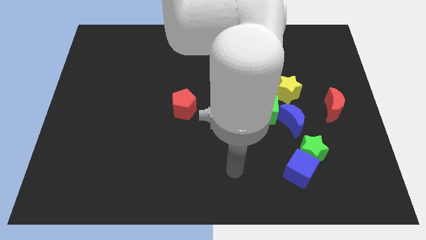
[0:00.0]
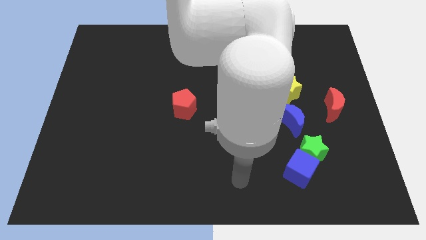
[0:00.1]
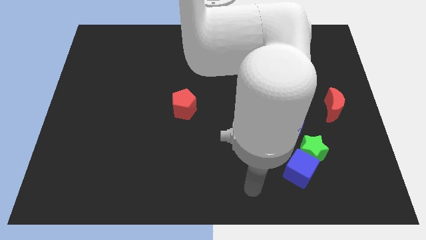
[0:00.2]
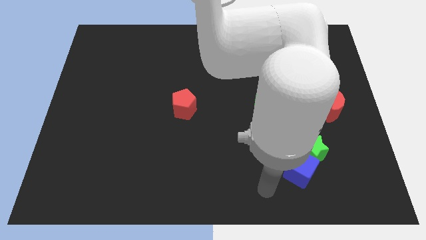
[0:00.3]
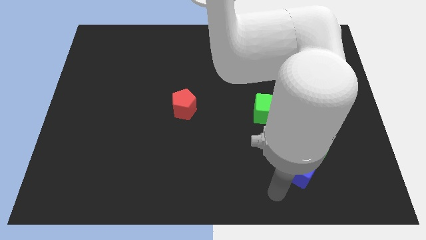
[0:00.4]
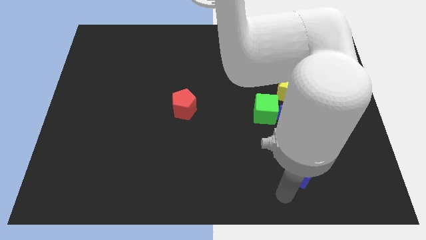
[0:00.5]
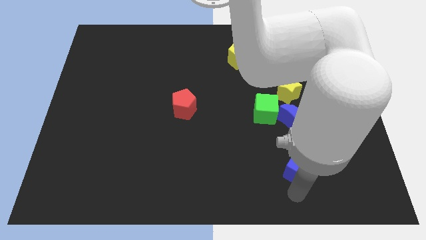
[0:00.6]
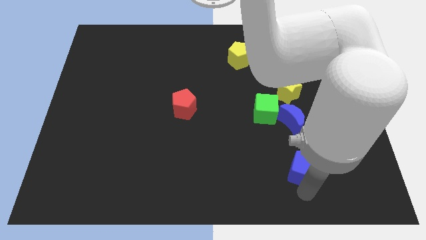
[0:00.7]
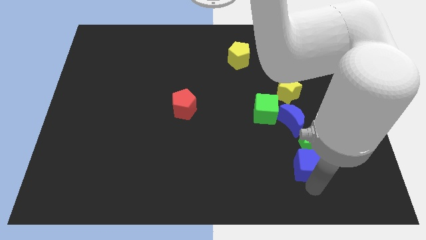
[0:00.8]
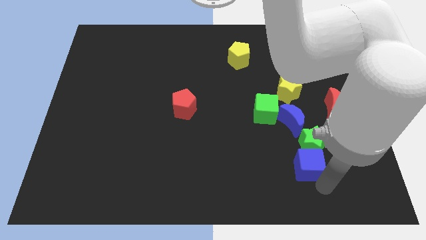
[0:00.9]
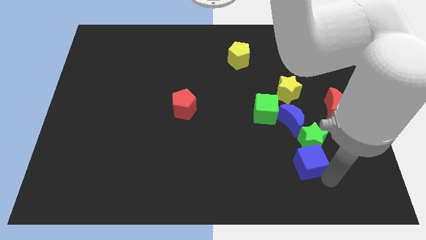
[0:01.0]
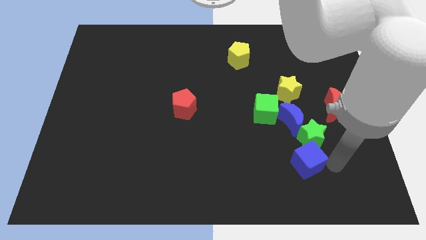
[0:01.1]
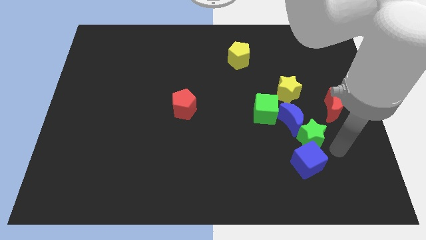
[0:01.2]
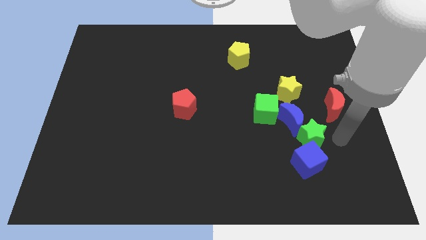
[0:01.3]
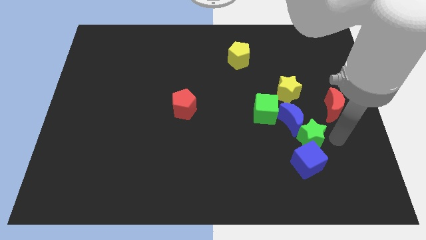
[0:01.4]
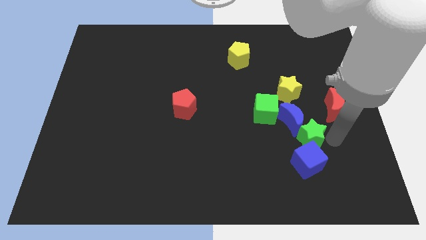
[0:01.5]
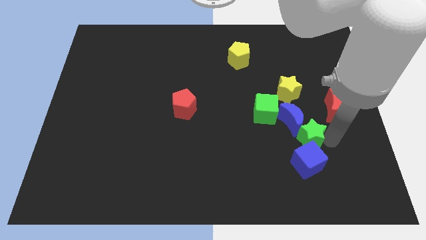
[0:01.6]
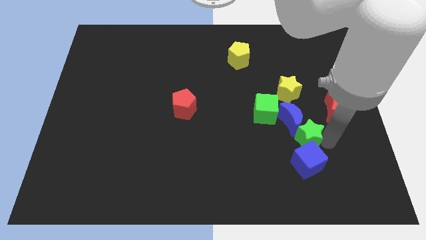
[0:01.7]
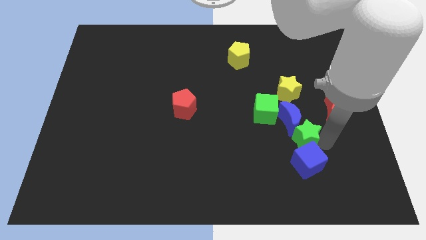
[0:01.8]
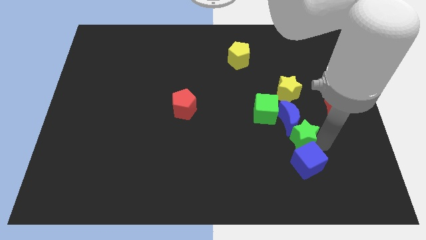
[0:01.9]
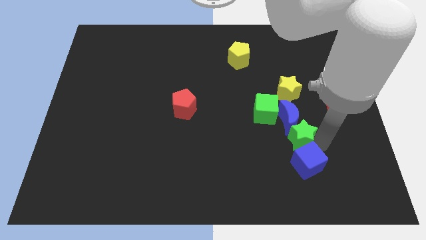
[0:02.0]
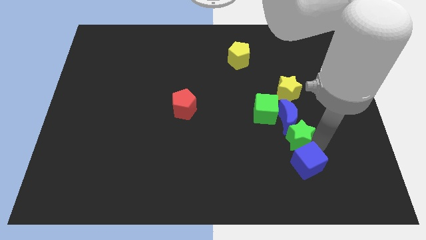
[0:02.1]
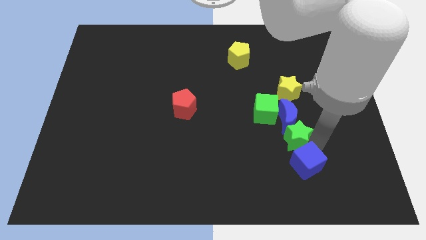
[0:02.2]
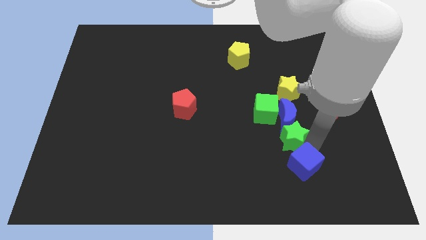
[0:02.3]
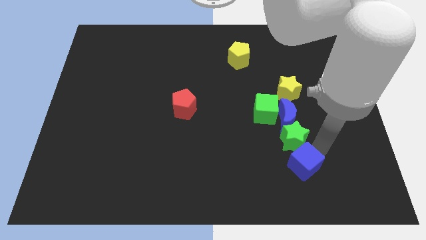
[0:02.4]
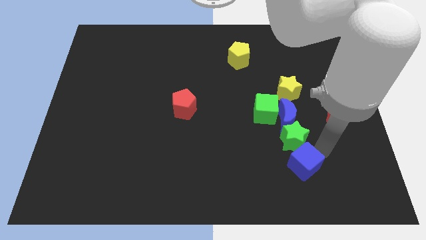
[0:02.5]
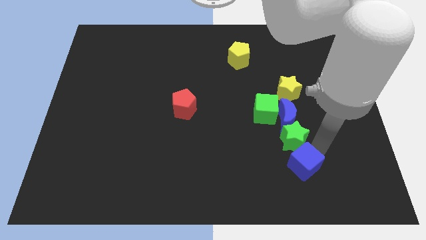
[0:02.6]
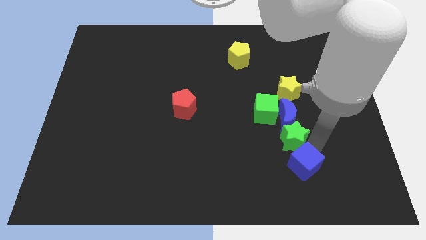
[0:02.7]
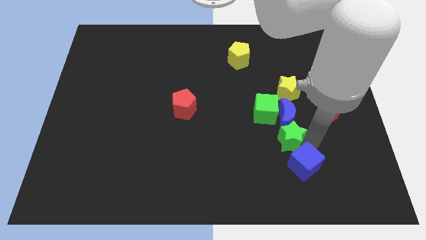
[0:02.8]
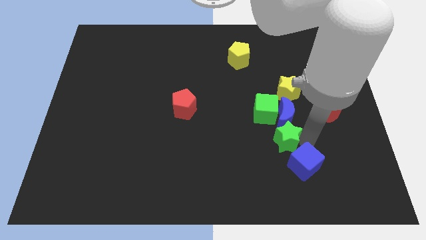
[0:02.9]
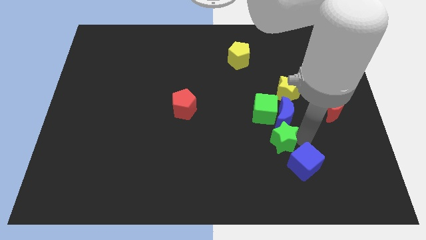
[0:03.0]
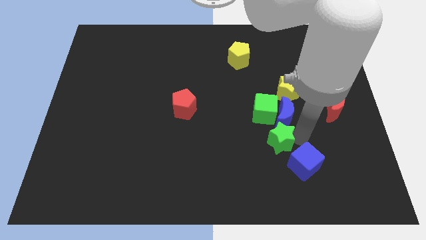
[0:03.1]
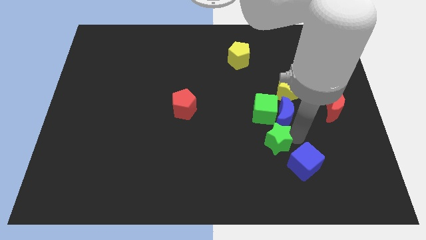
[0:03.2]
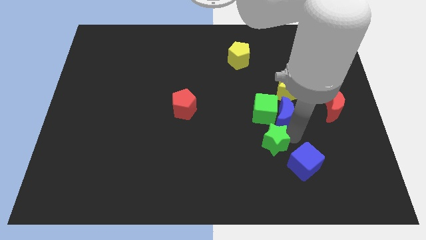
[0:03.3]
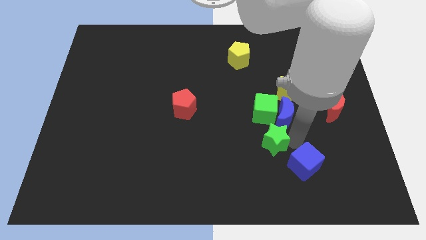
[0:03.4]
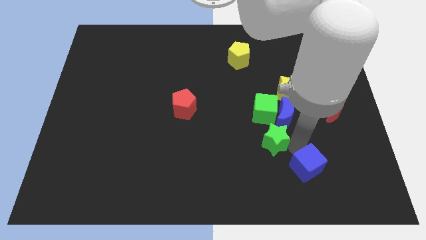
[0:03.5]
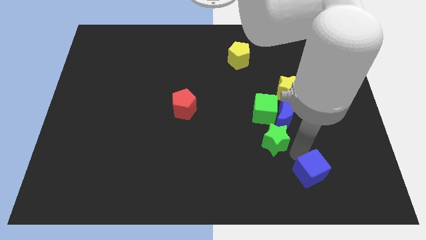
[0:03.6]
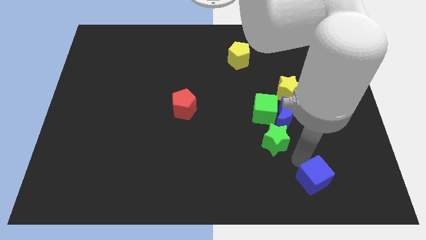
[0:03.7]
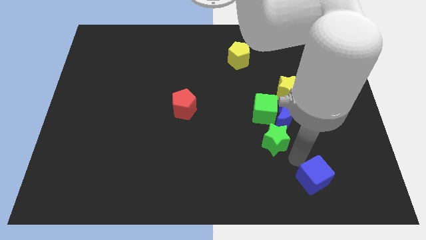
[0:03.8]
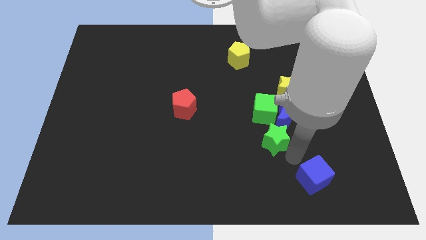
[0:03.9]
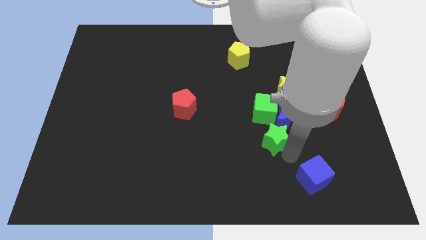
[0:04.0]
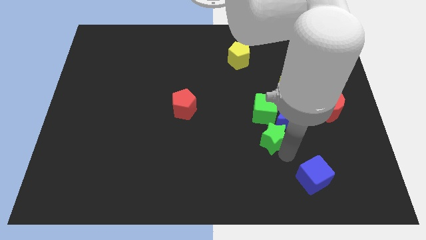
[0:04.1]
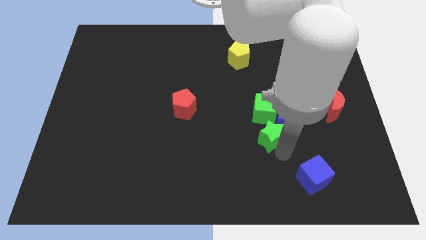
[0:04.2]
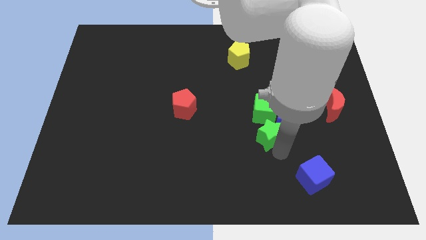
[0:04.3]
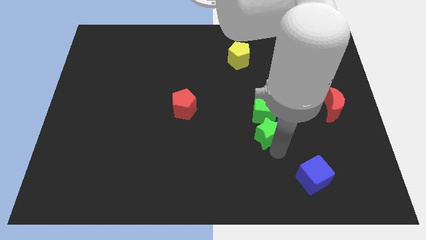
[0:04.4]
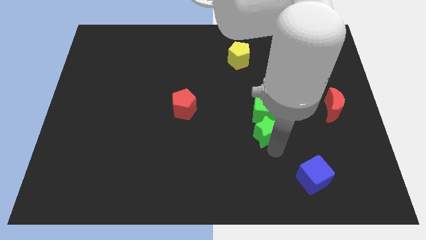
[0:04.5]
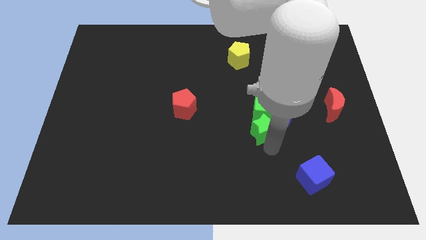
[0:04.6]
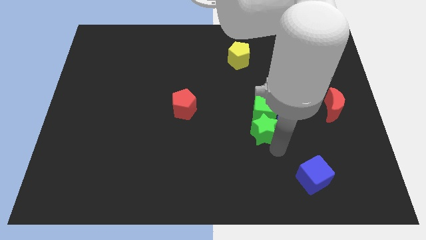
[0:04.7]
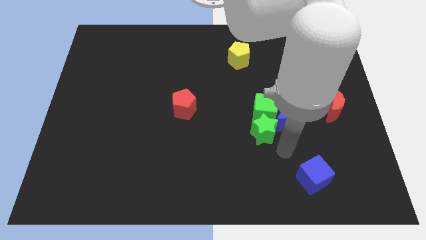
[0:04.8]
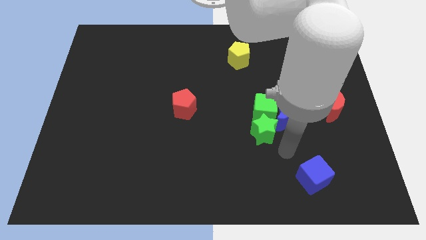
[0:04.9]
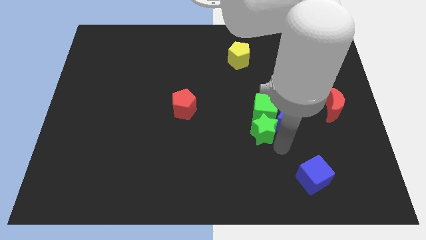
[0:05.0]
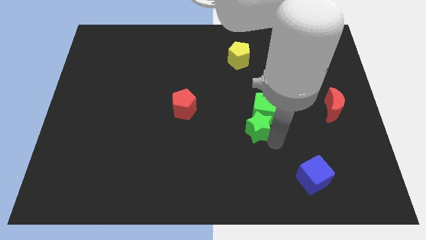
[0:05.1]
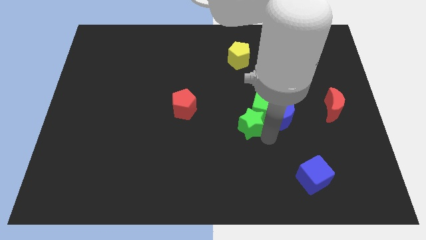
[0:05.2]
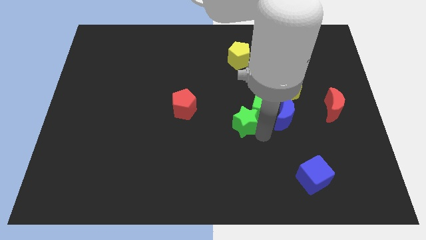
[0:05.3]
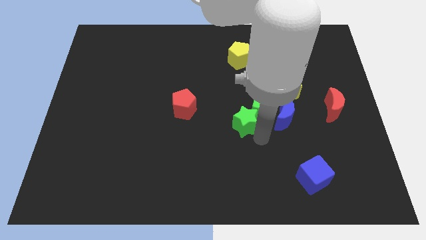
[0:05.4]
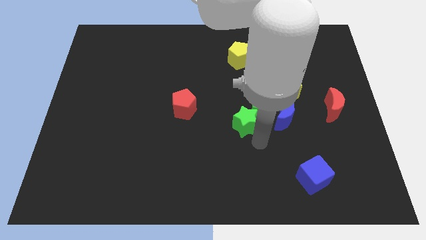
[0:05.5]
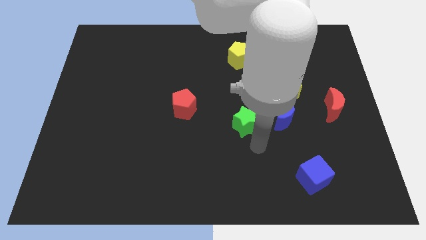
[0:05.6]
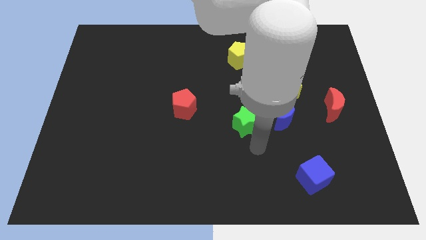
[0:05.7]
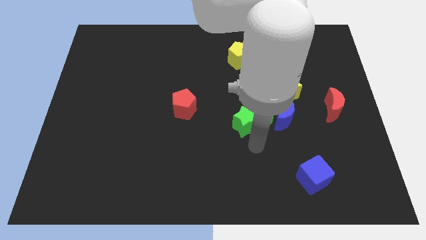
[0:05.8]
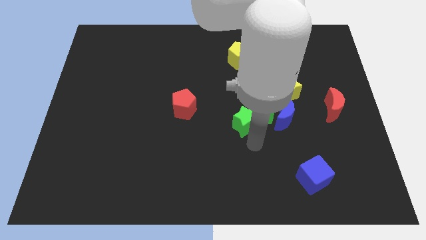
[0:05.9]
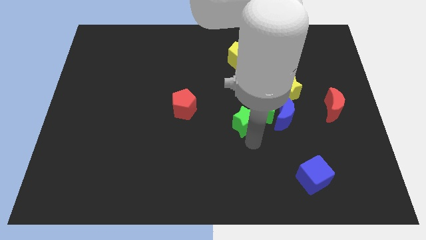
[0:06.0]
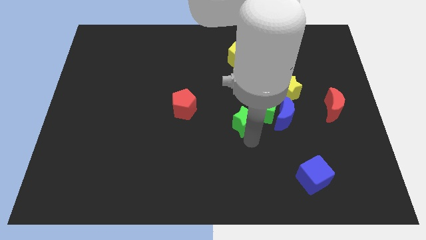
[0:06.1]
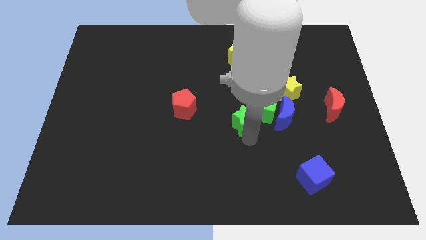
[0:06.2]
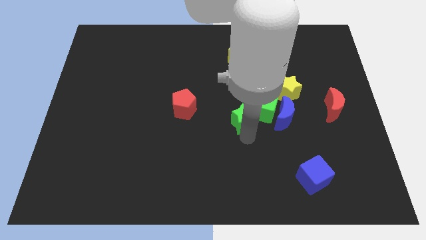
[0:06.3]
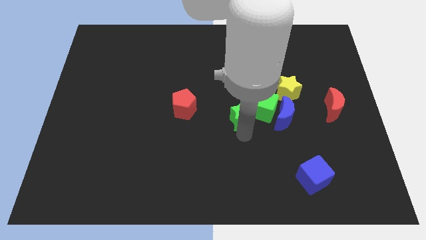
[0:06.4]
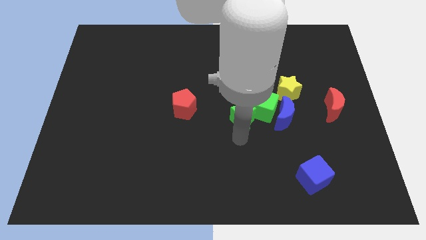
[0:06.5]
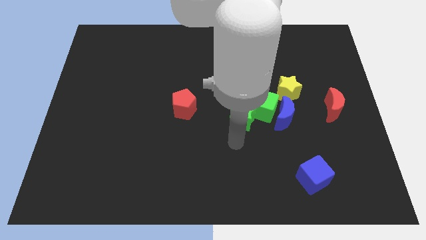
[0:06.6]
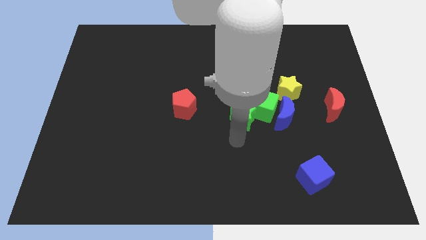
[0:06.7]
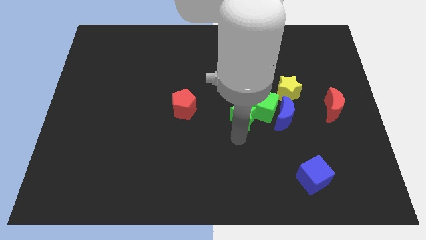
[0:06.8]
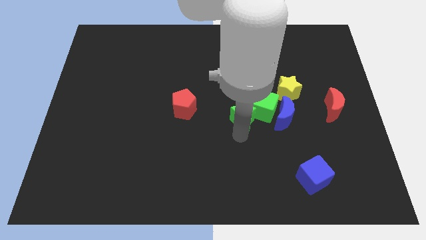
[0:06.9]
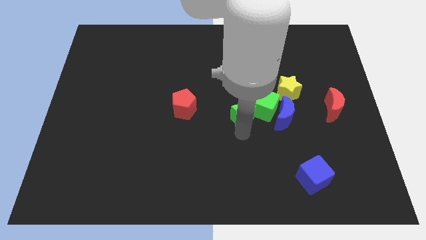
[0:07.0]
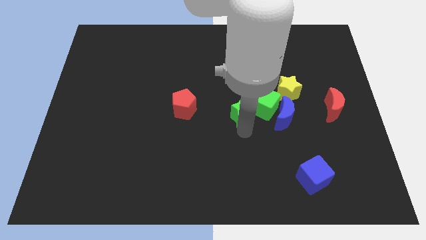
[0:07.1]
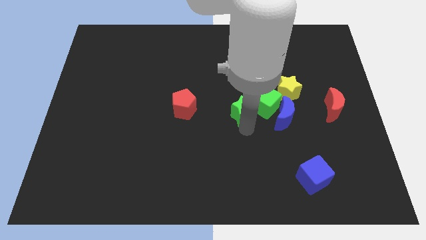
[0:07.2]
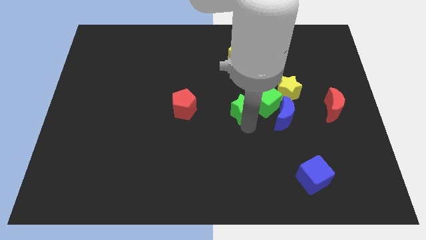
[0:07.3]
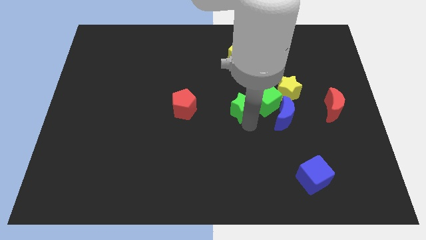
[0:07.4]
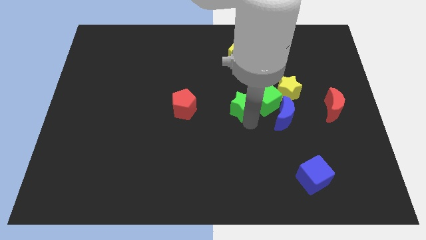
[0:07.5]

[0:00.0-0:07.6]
put the green star to the top left of the blue moon
